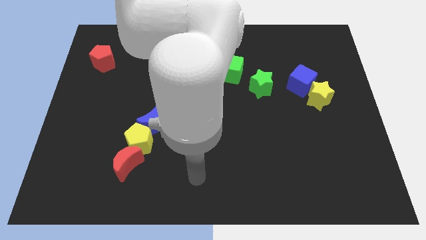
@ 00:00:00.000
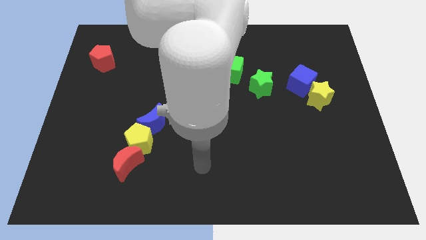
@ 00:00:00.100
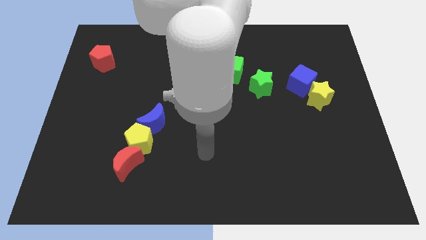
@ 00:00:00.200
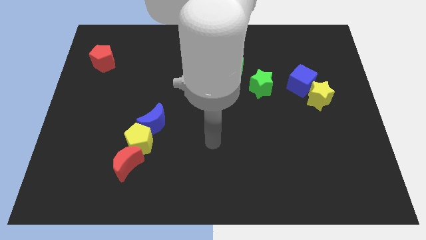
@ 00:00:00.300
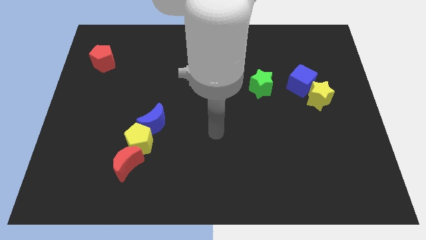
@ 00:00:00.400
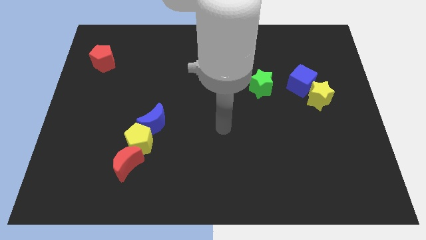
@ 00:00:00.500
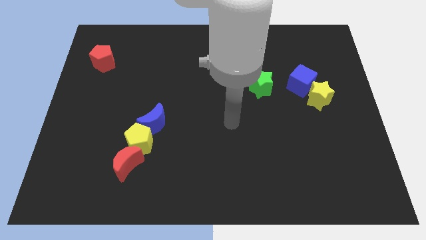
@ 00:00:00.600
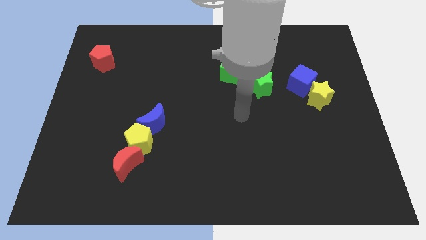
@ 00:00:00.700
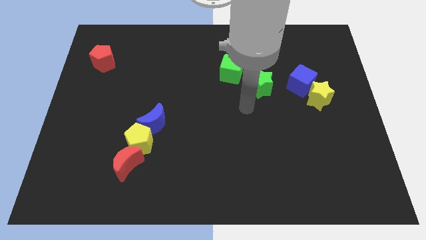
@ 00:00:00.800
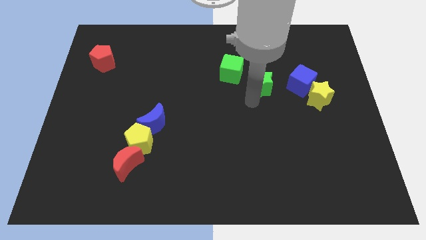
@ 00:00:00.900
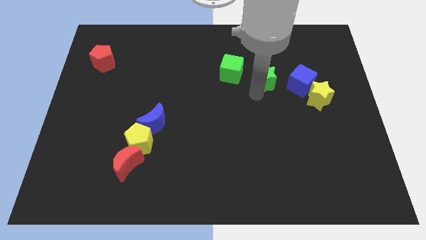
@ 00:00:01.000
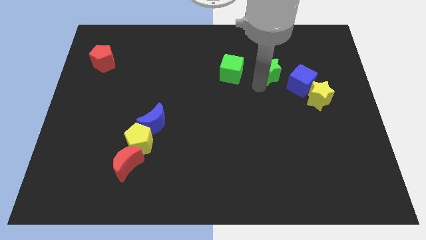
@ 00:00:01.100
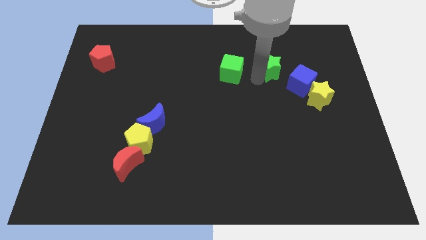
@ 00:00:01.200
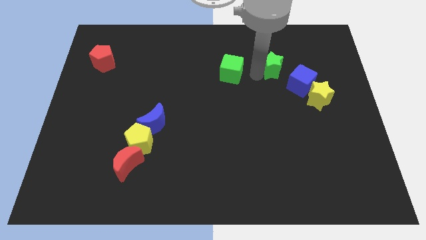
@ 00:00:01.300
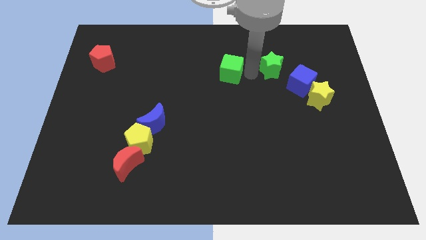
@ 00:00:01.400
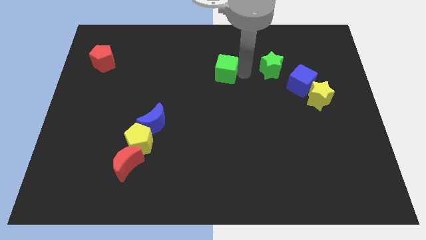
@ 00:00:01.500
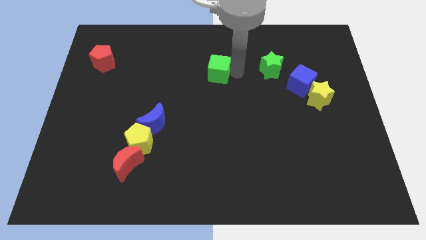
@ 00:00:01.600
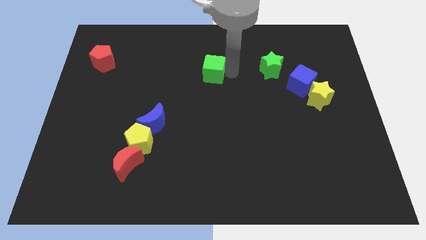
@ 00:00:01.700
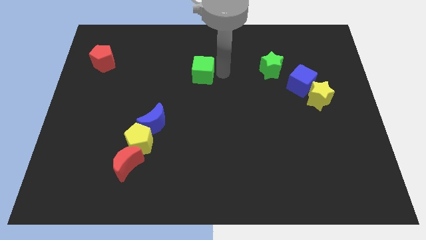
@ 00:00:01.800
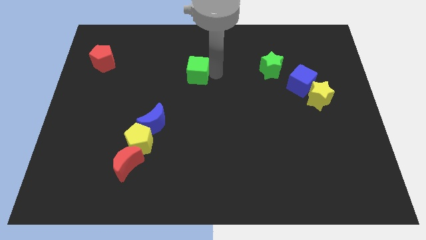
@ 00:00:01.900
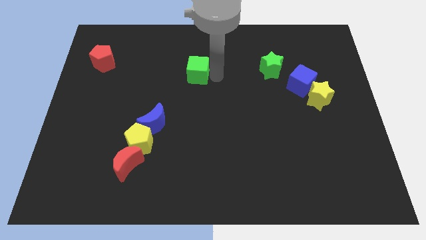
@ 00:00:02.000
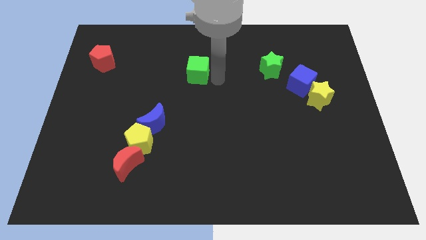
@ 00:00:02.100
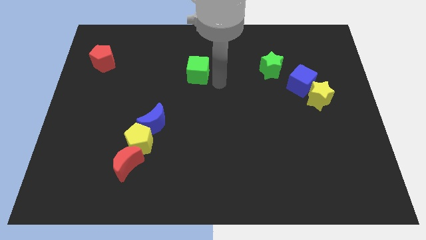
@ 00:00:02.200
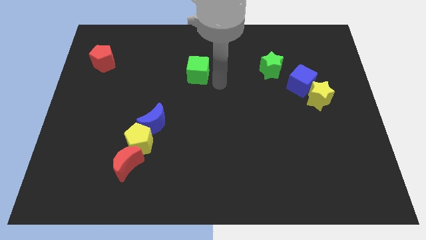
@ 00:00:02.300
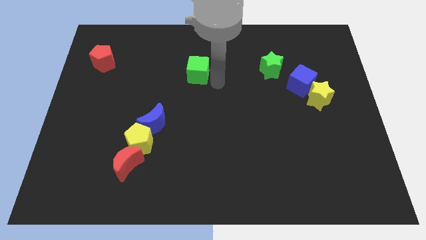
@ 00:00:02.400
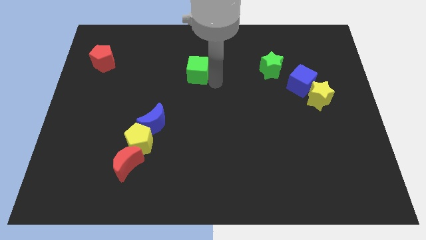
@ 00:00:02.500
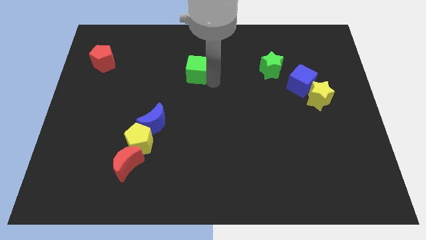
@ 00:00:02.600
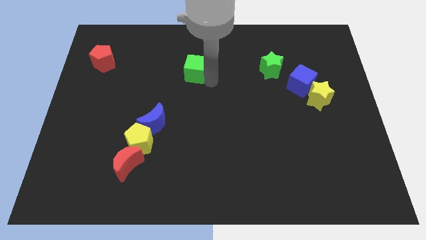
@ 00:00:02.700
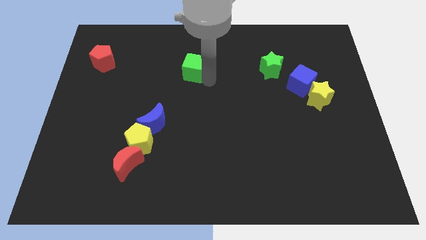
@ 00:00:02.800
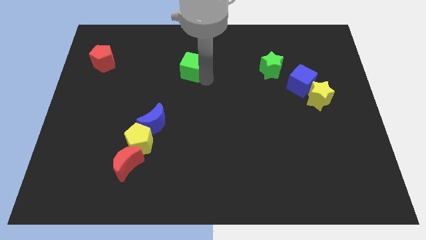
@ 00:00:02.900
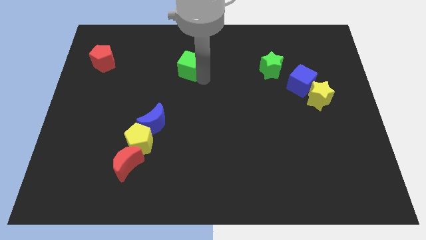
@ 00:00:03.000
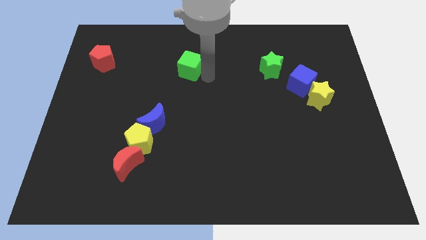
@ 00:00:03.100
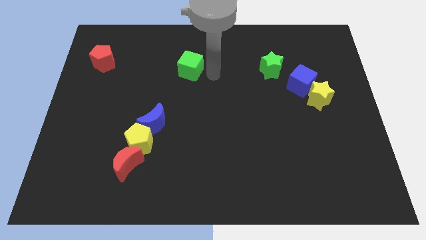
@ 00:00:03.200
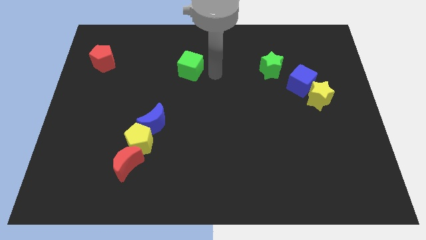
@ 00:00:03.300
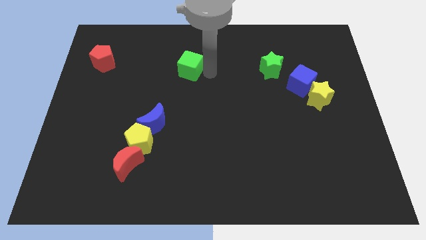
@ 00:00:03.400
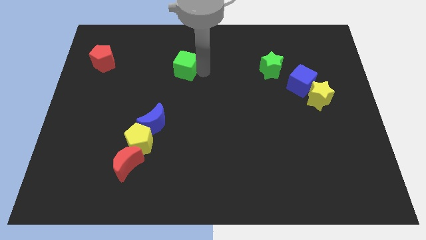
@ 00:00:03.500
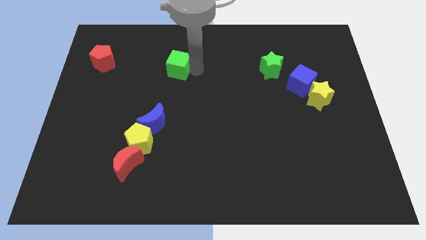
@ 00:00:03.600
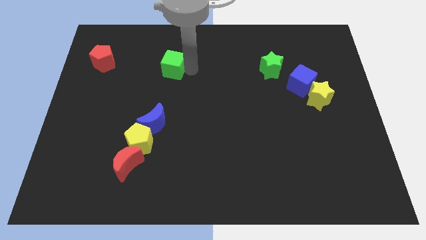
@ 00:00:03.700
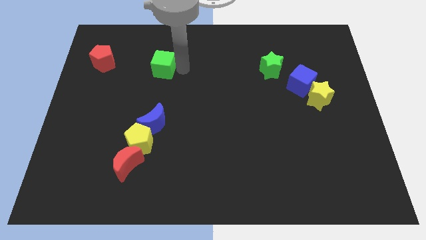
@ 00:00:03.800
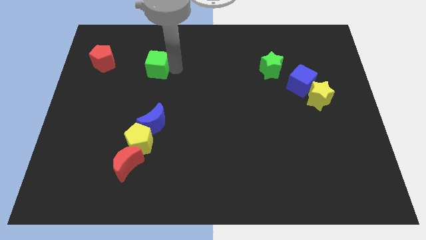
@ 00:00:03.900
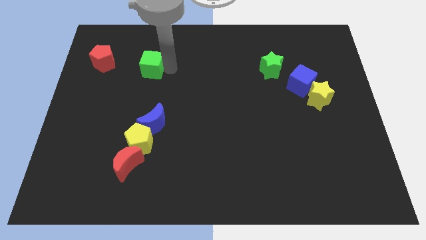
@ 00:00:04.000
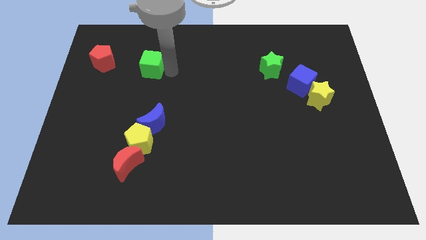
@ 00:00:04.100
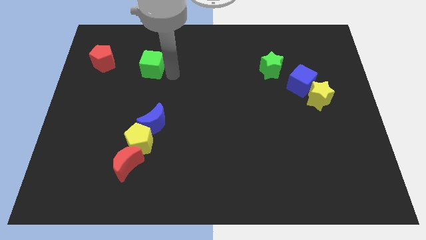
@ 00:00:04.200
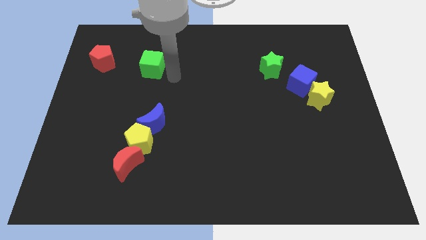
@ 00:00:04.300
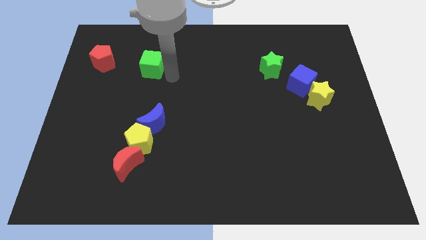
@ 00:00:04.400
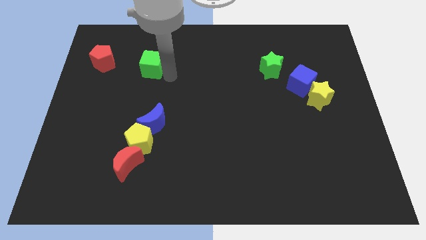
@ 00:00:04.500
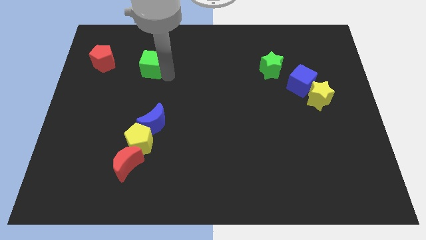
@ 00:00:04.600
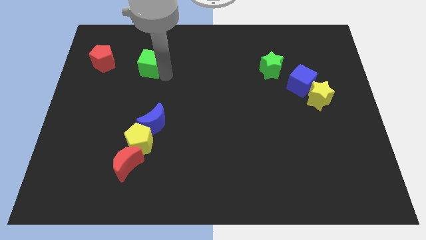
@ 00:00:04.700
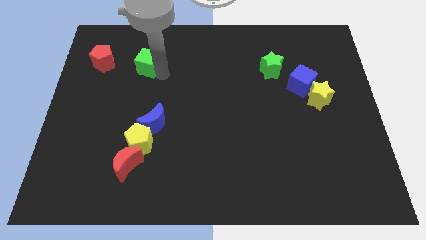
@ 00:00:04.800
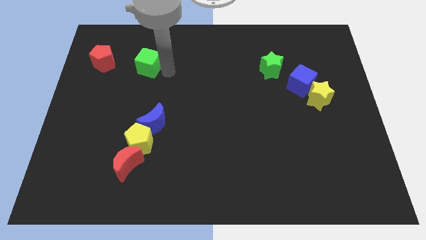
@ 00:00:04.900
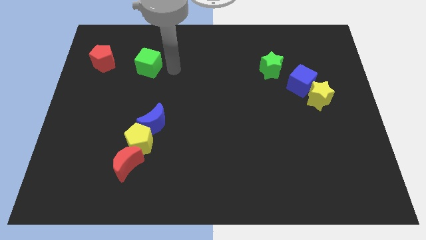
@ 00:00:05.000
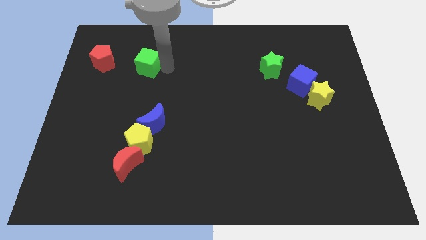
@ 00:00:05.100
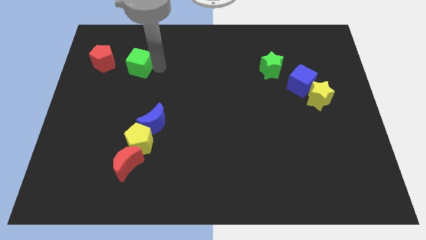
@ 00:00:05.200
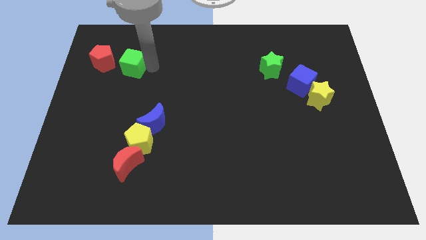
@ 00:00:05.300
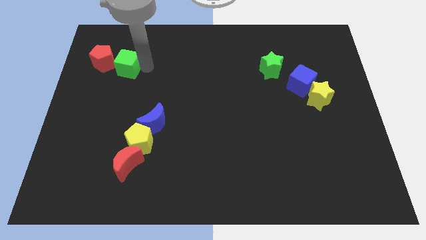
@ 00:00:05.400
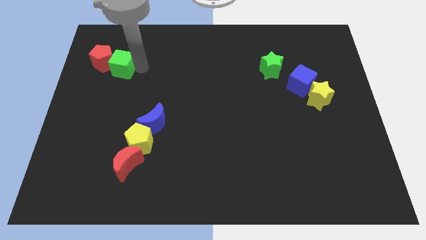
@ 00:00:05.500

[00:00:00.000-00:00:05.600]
slide the green cube to the red pentagon

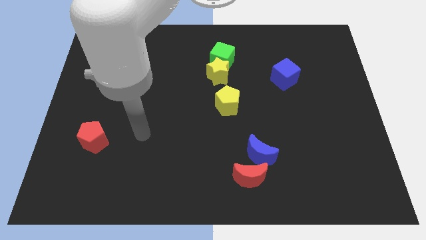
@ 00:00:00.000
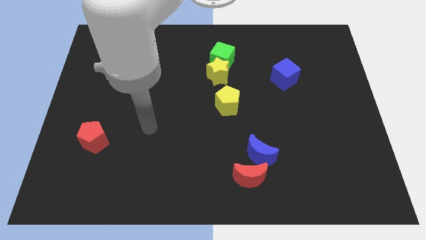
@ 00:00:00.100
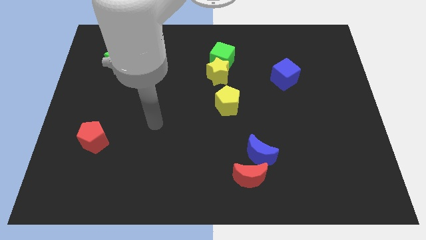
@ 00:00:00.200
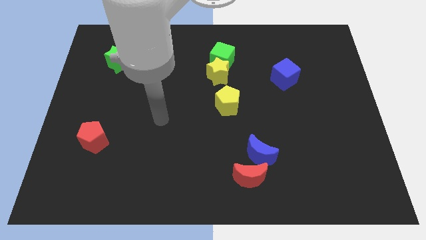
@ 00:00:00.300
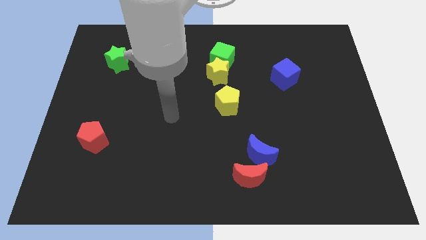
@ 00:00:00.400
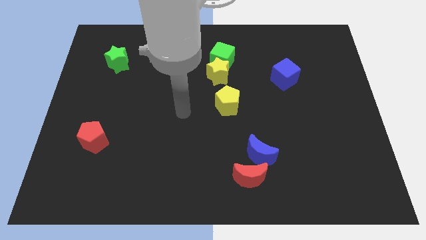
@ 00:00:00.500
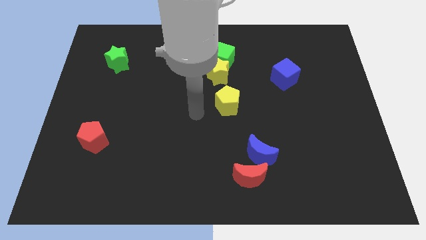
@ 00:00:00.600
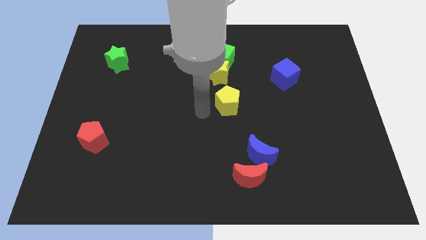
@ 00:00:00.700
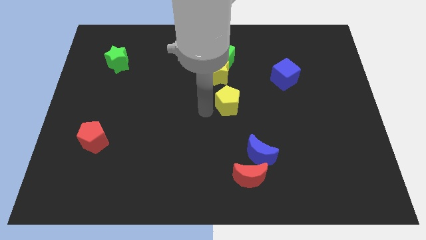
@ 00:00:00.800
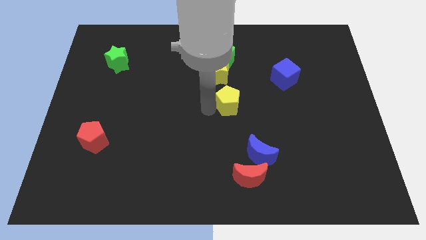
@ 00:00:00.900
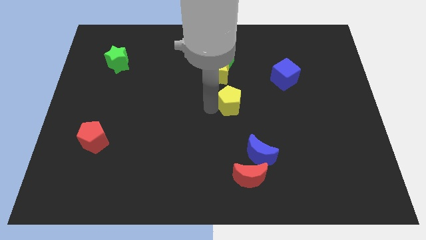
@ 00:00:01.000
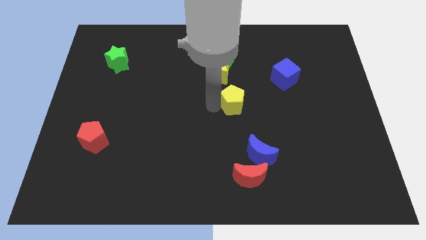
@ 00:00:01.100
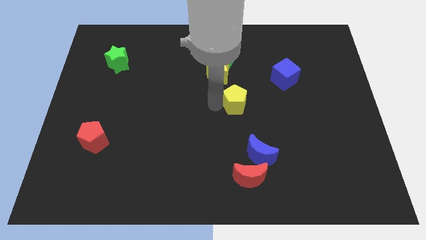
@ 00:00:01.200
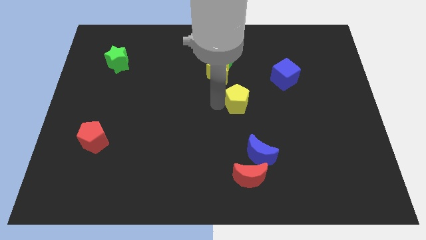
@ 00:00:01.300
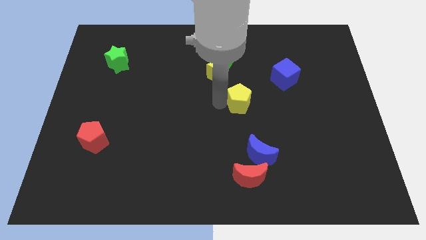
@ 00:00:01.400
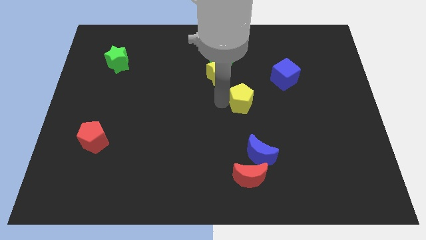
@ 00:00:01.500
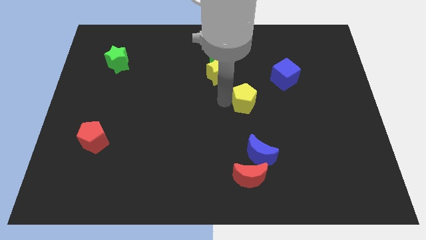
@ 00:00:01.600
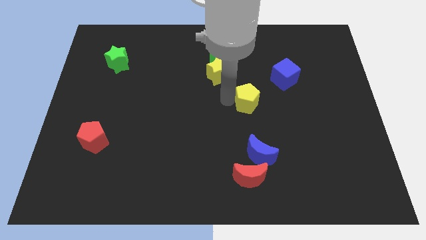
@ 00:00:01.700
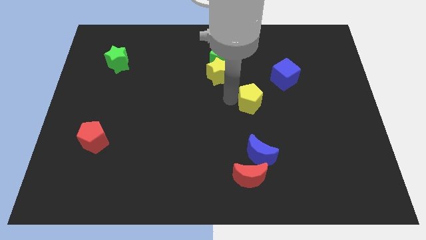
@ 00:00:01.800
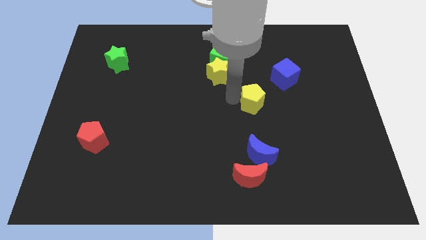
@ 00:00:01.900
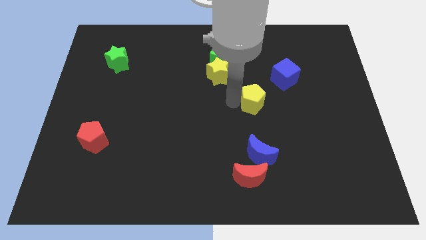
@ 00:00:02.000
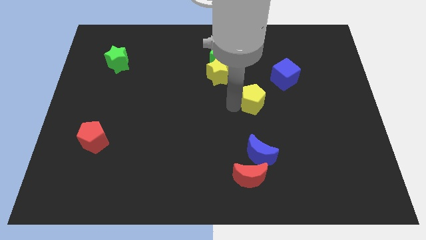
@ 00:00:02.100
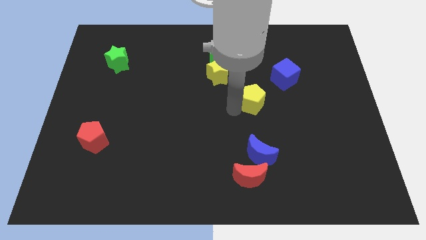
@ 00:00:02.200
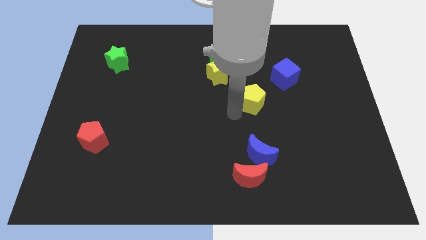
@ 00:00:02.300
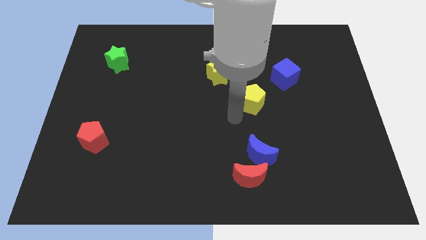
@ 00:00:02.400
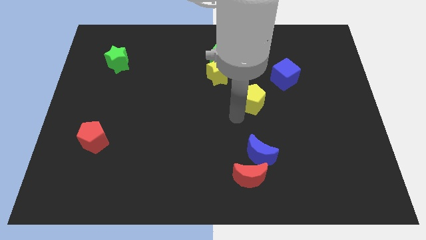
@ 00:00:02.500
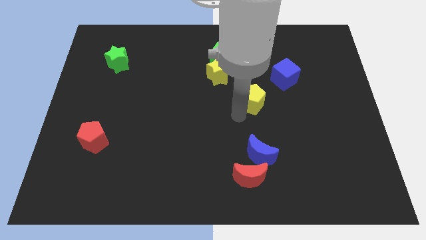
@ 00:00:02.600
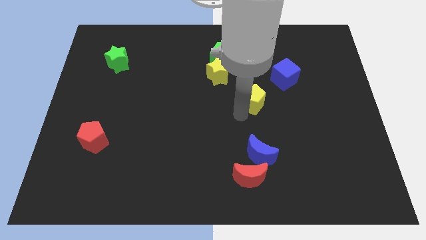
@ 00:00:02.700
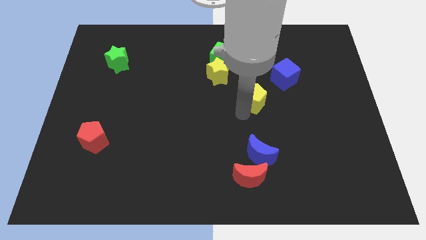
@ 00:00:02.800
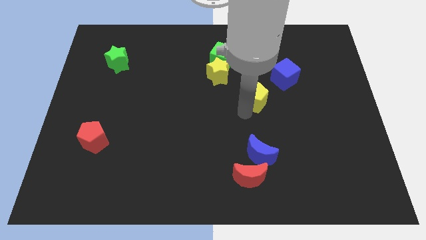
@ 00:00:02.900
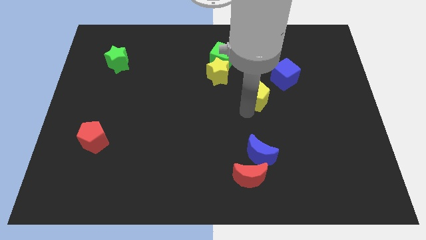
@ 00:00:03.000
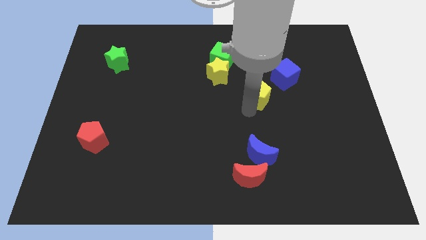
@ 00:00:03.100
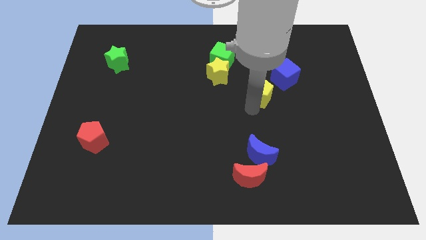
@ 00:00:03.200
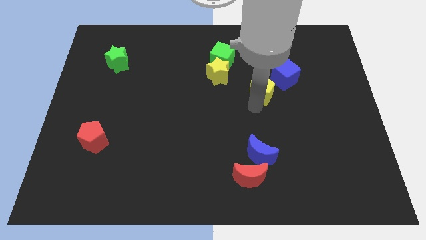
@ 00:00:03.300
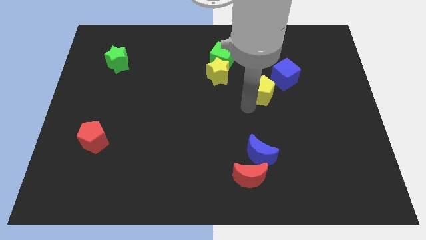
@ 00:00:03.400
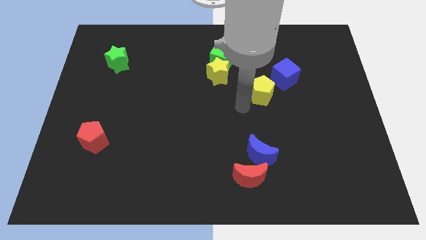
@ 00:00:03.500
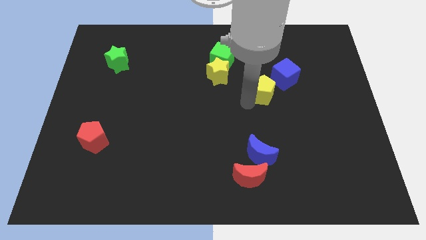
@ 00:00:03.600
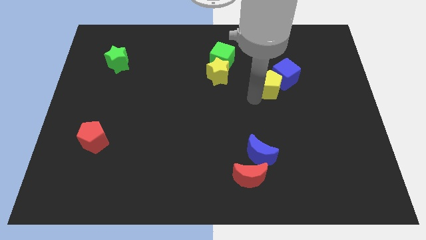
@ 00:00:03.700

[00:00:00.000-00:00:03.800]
push the yellow pentagon towards the blue cube
